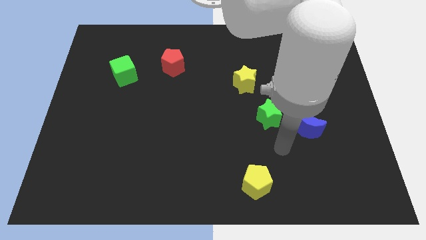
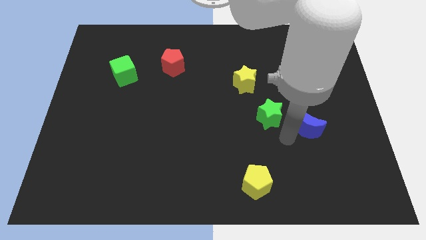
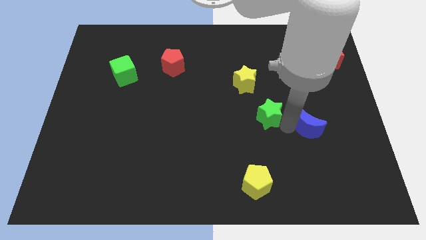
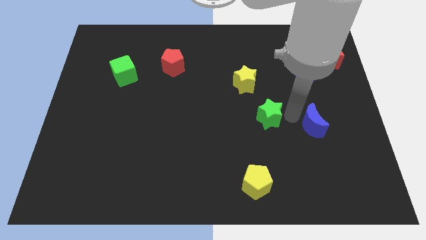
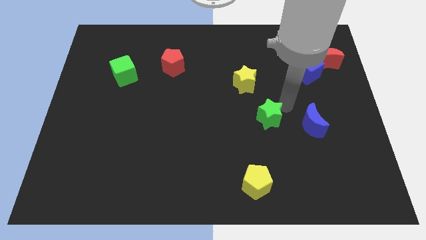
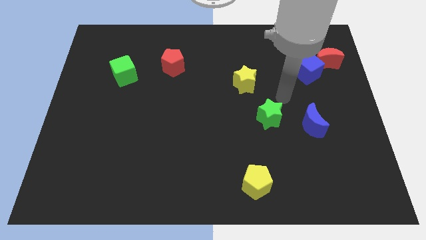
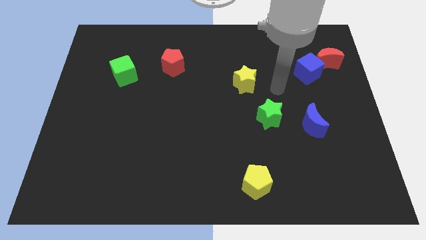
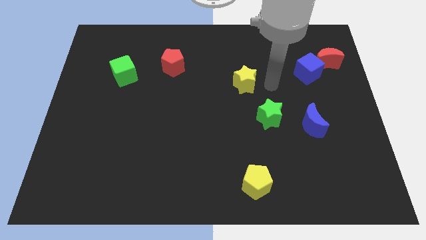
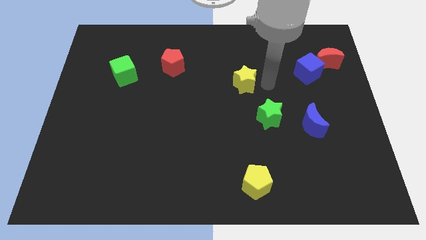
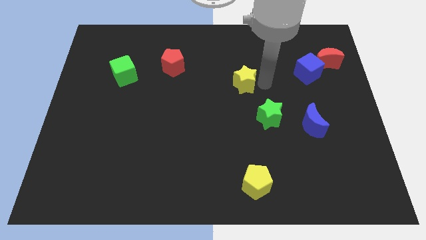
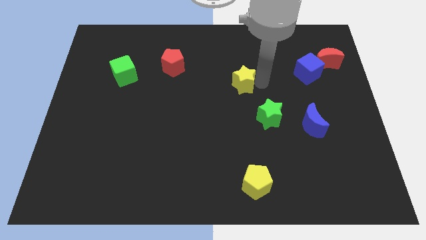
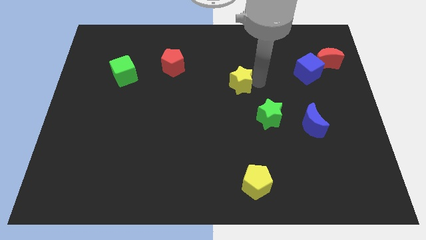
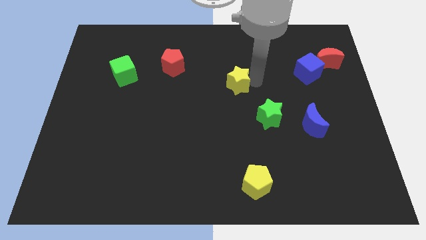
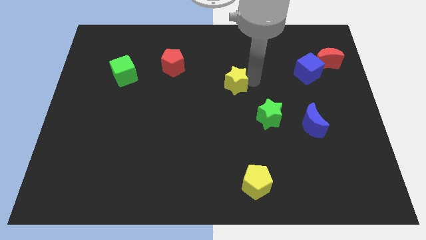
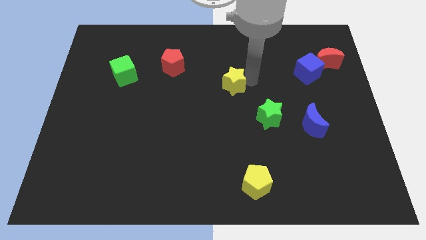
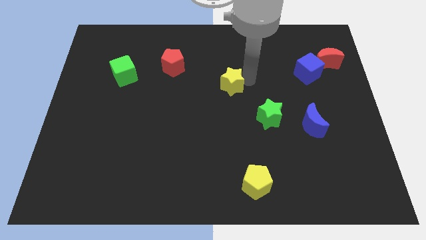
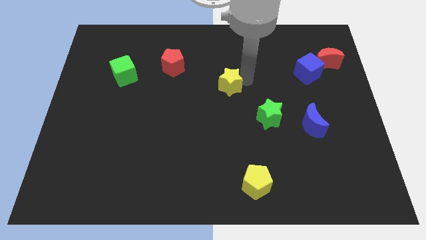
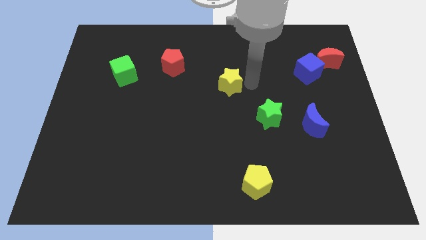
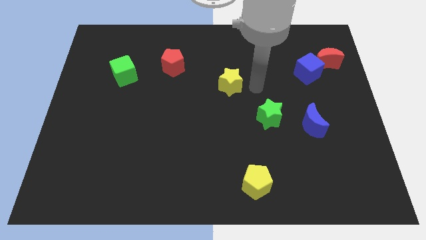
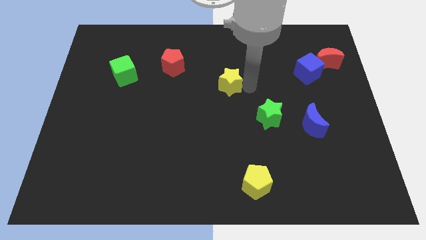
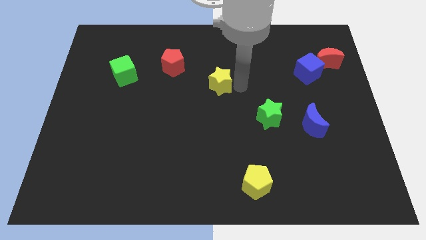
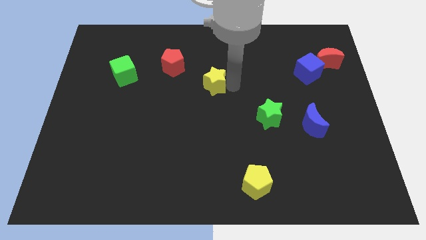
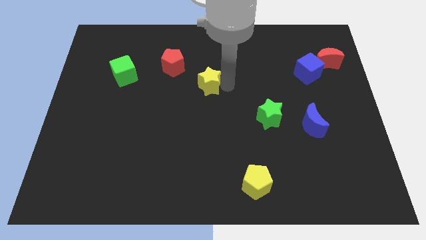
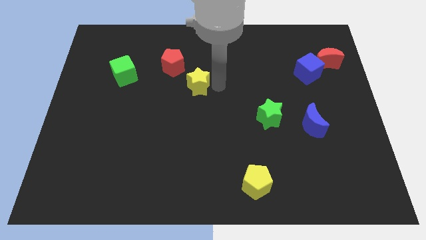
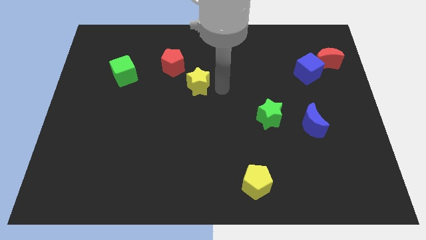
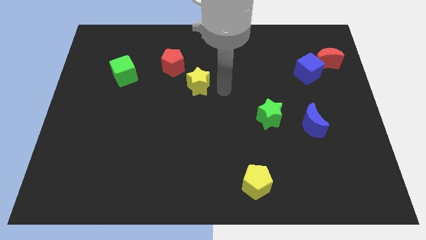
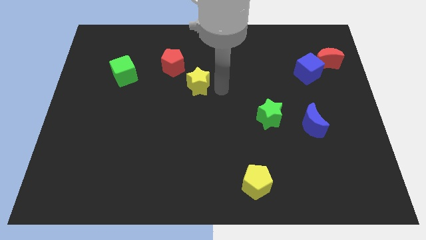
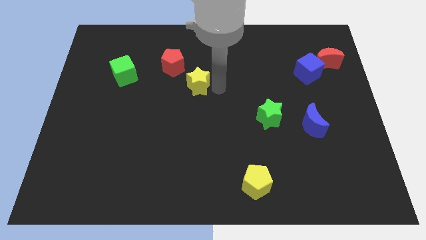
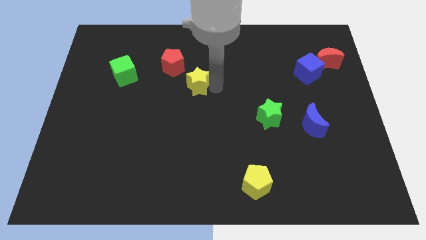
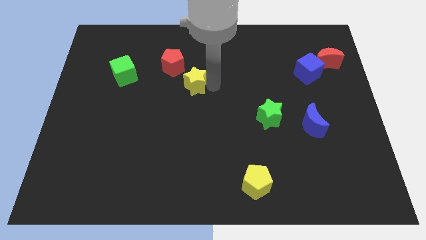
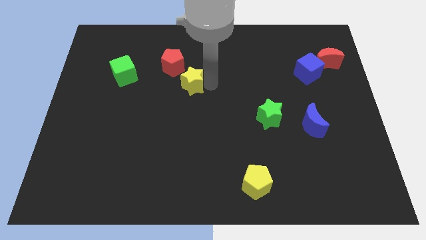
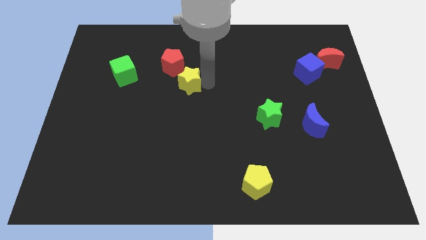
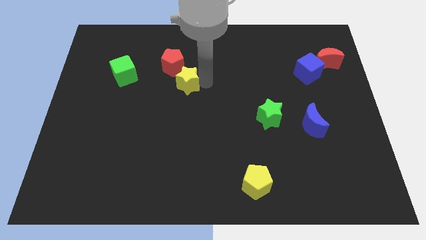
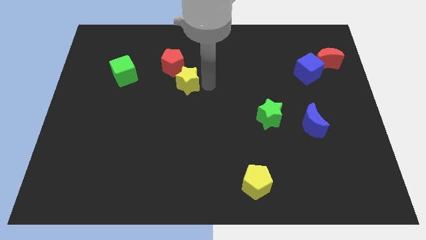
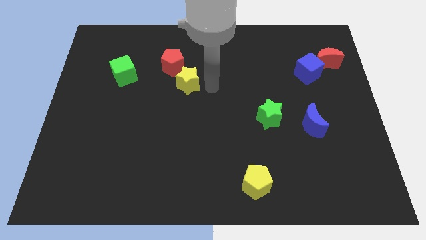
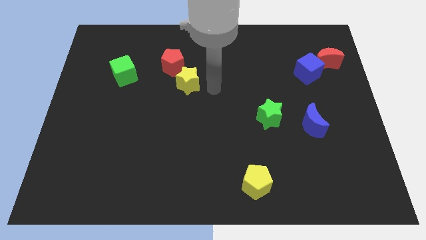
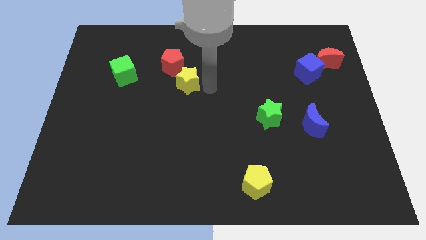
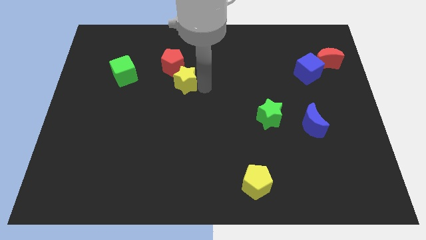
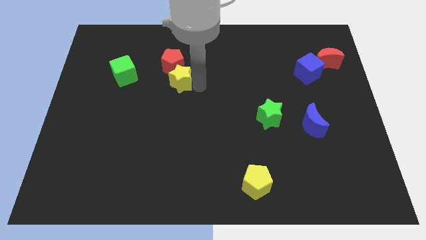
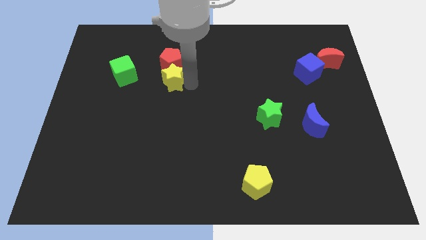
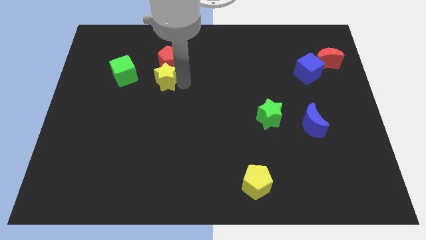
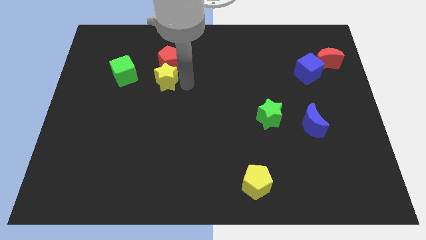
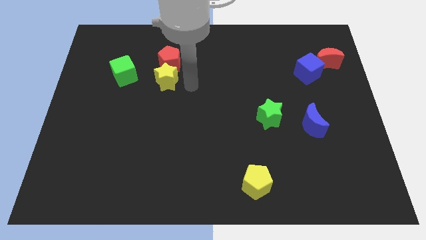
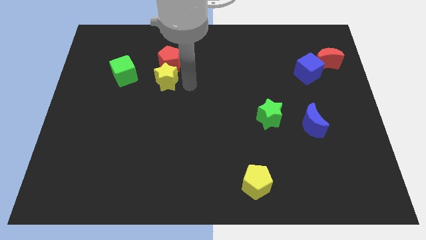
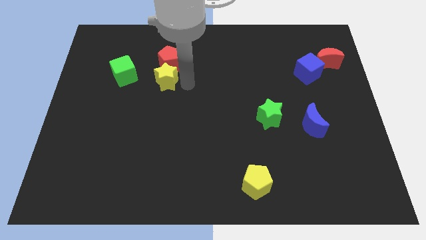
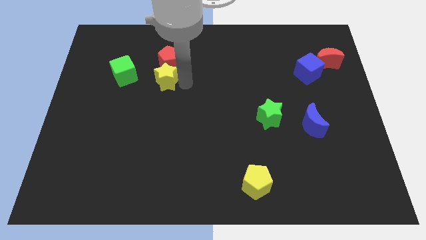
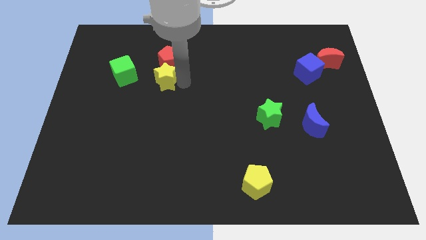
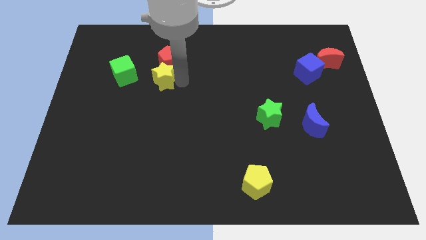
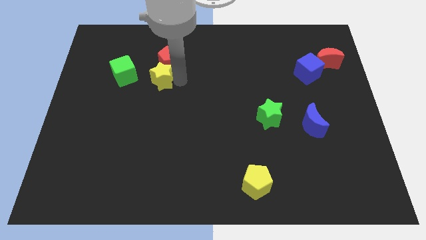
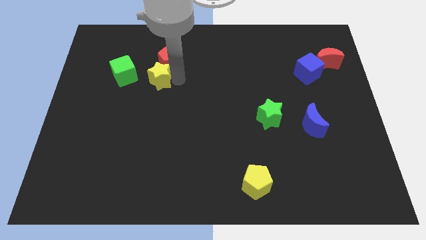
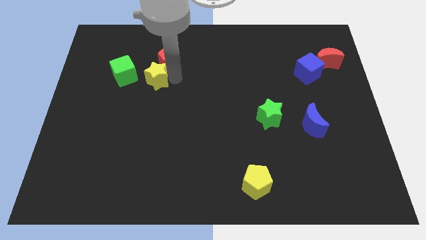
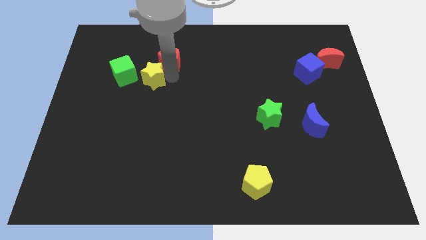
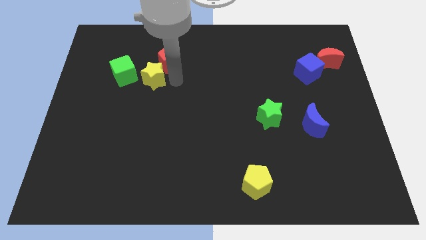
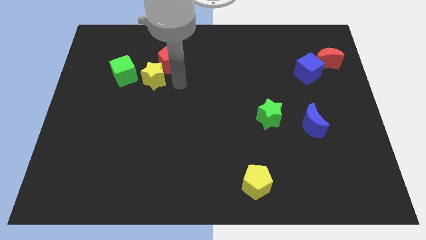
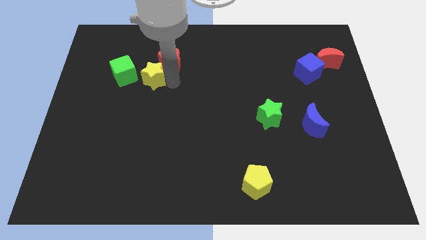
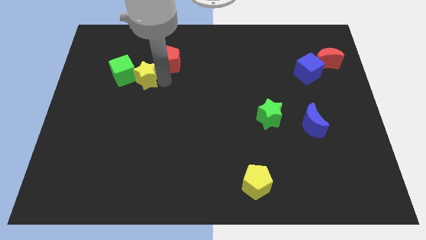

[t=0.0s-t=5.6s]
slide the yellow star close to the green cube

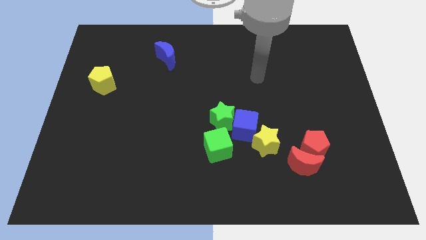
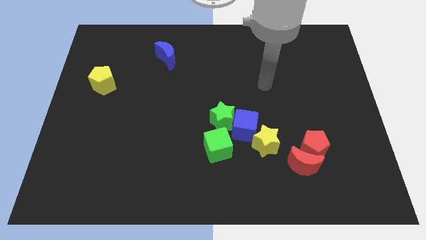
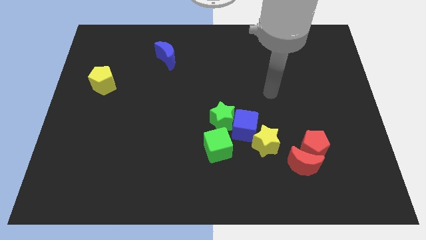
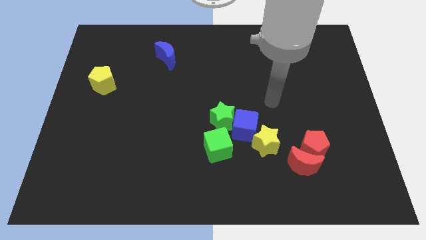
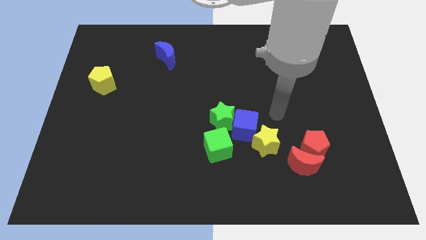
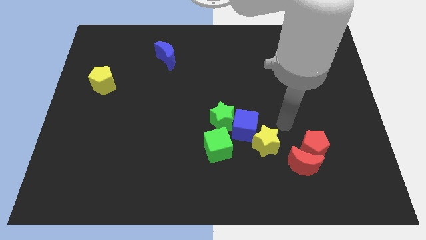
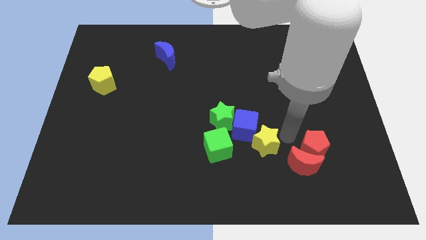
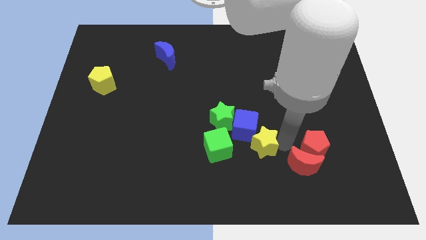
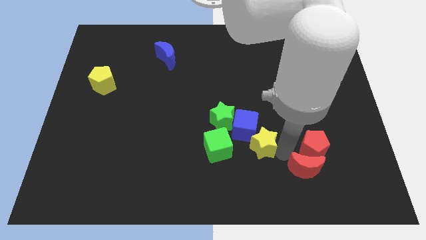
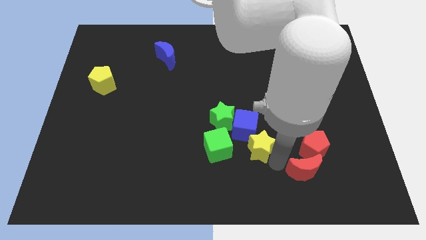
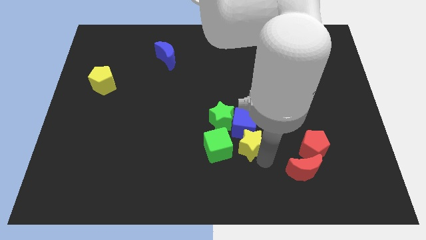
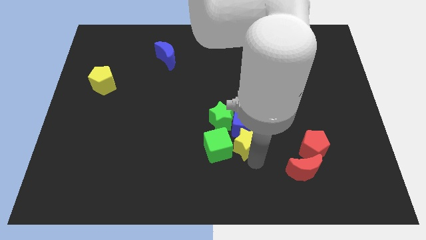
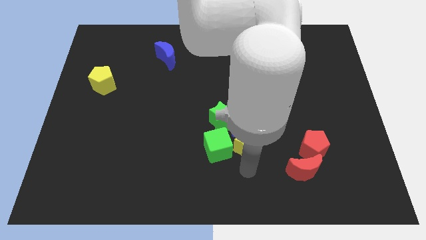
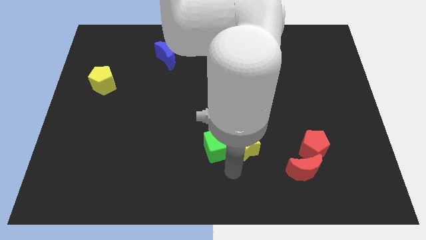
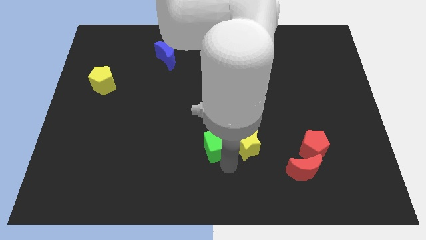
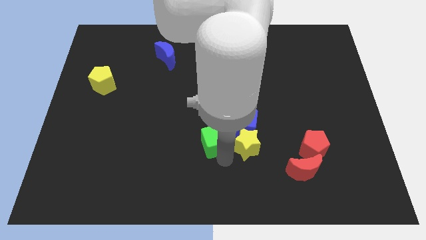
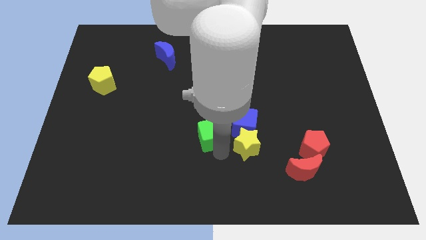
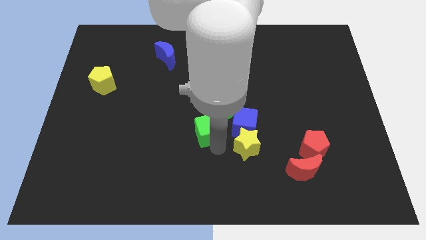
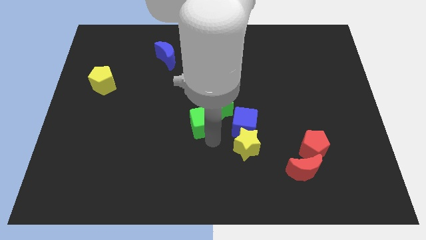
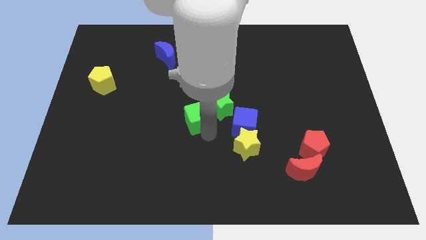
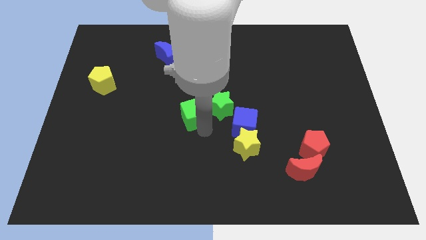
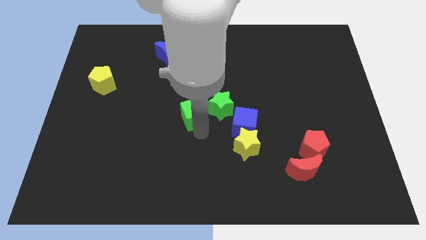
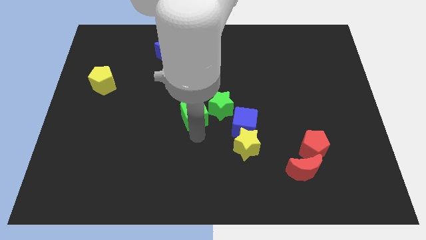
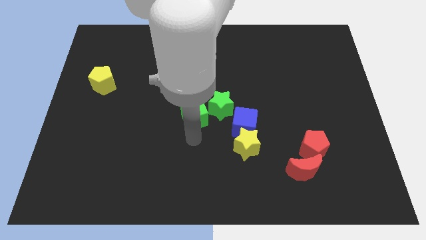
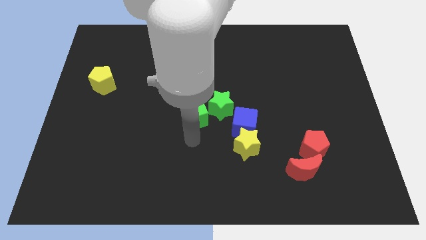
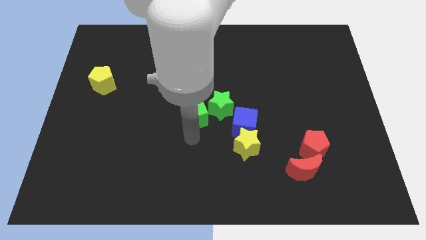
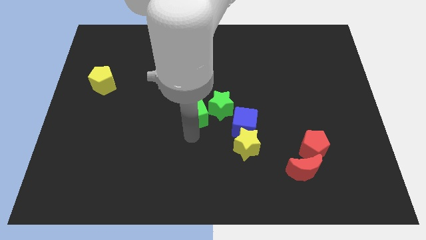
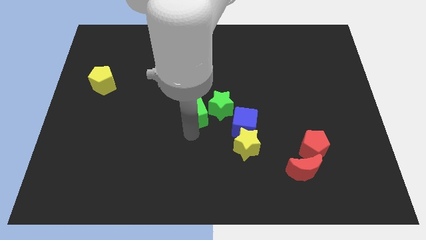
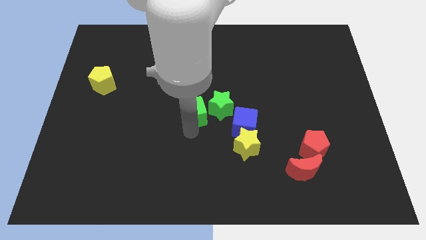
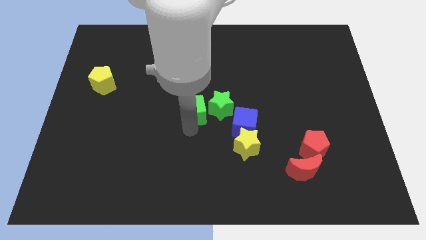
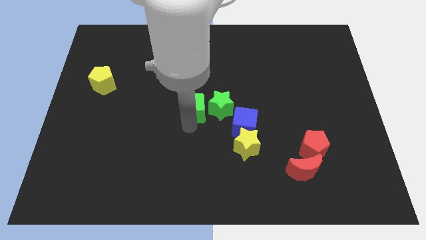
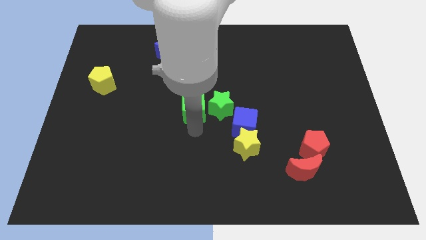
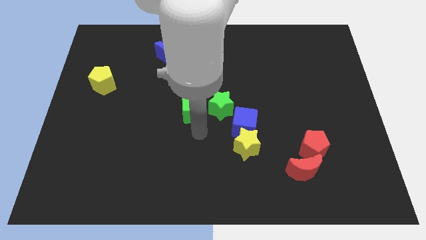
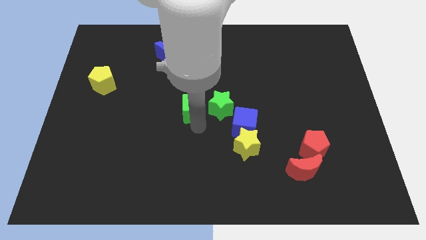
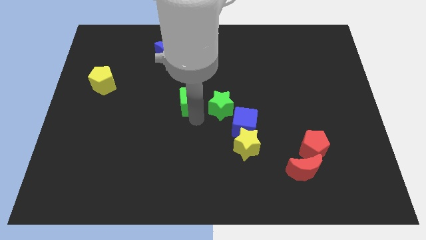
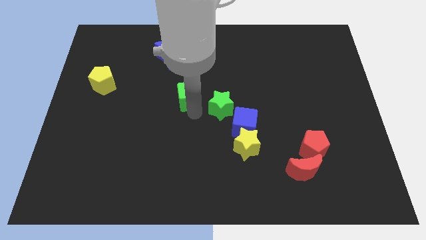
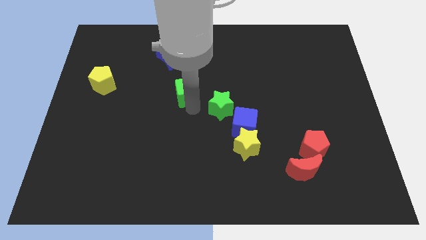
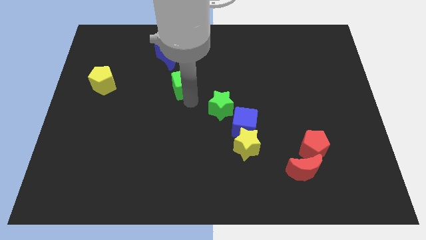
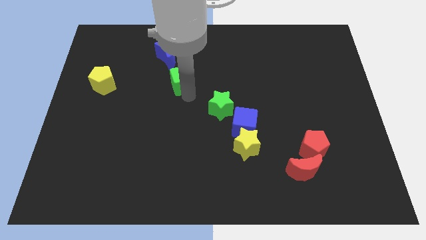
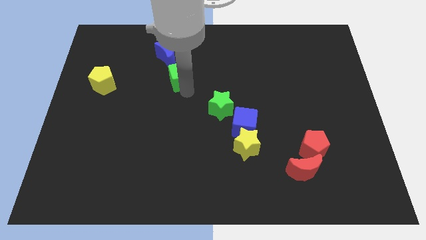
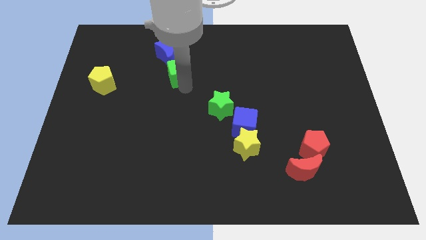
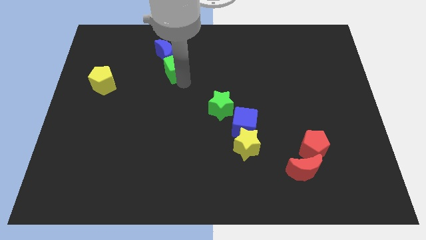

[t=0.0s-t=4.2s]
put the green cube to the blue moon
